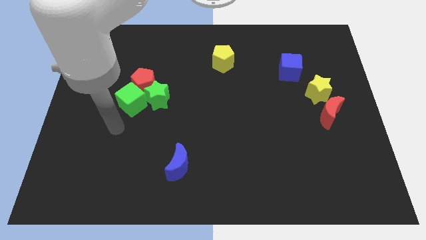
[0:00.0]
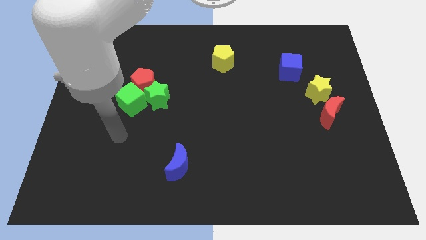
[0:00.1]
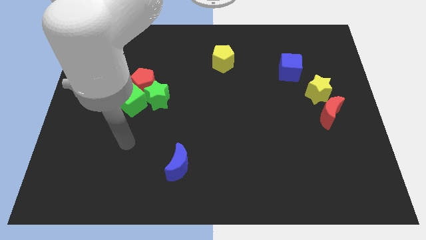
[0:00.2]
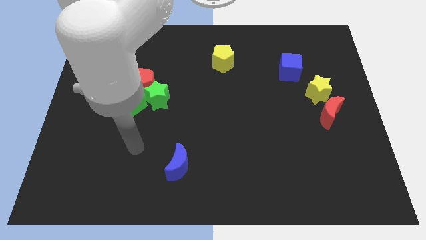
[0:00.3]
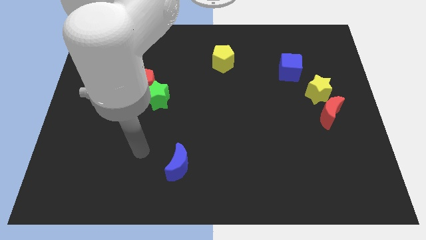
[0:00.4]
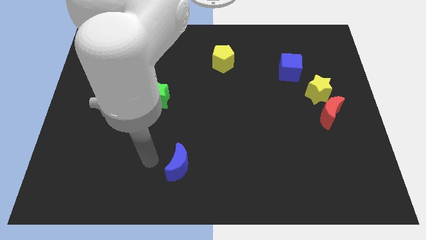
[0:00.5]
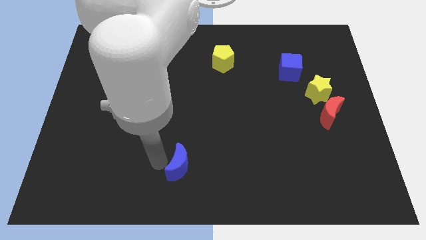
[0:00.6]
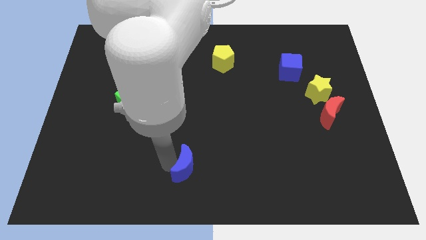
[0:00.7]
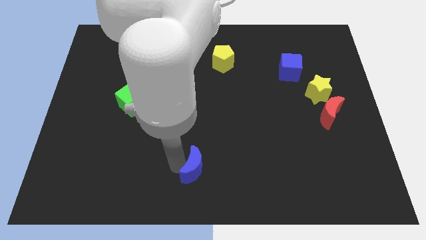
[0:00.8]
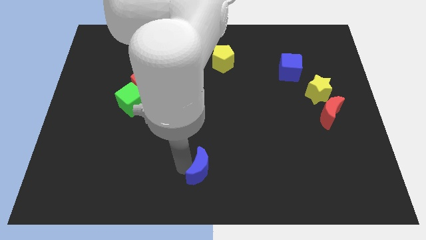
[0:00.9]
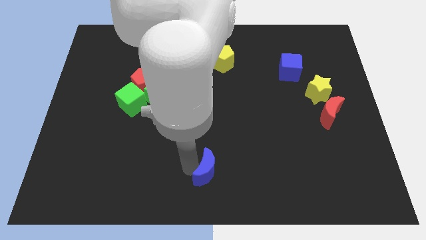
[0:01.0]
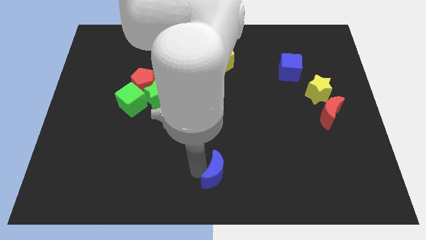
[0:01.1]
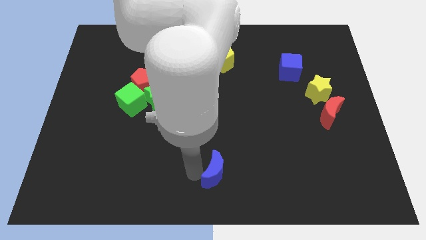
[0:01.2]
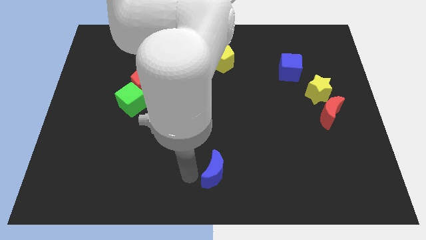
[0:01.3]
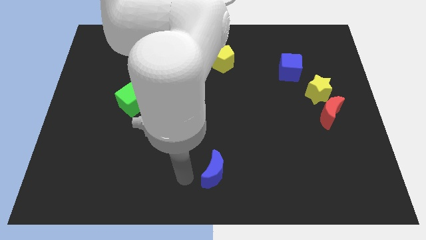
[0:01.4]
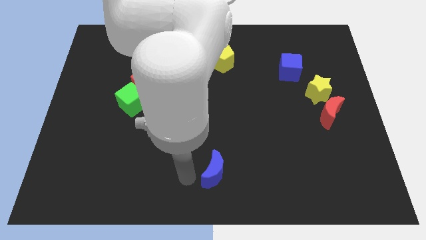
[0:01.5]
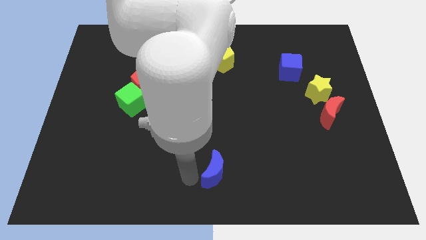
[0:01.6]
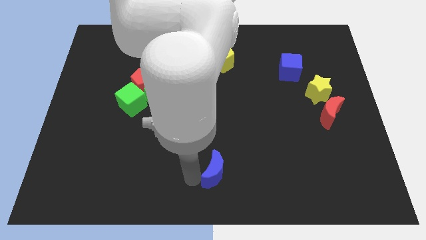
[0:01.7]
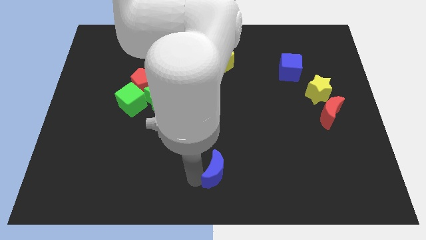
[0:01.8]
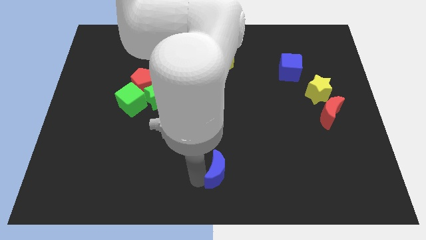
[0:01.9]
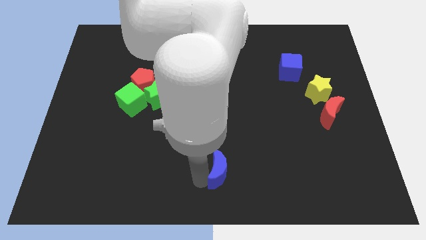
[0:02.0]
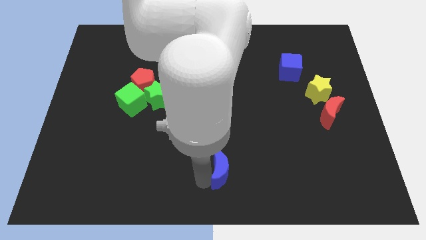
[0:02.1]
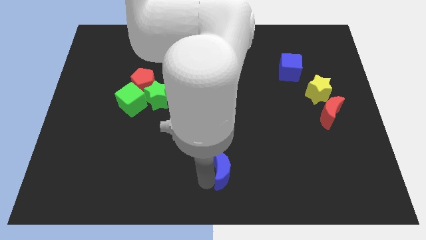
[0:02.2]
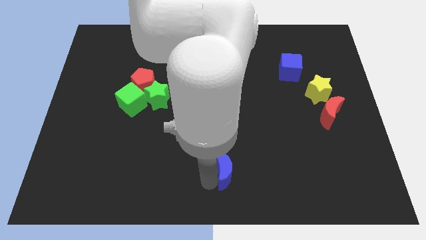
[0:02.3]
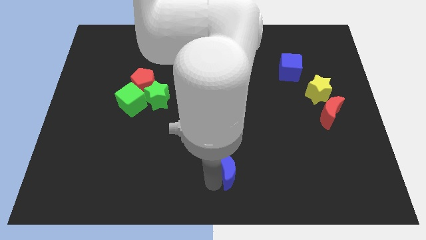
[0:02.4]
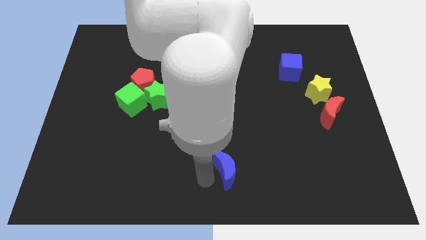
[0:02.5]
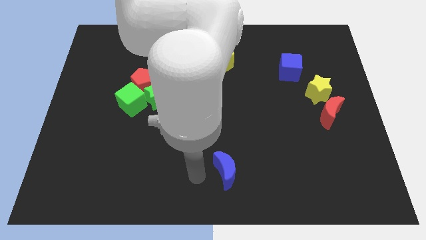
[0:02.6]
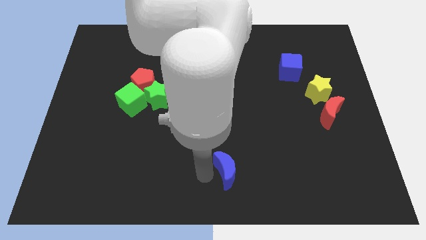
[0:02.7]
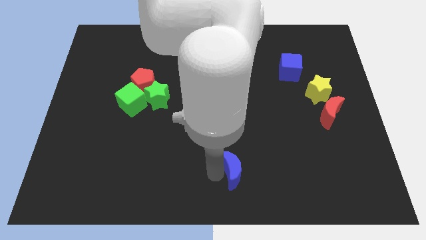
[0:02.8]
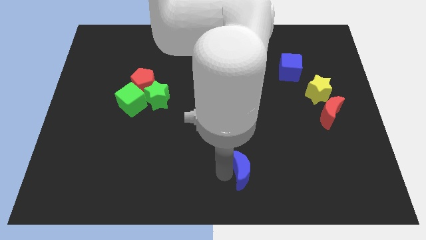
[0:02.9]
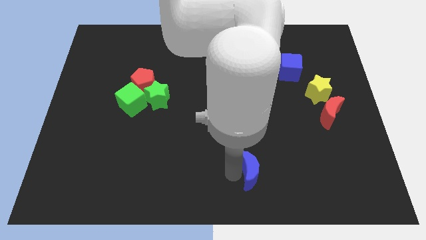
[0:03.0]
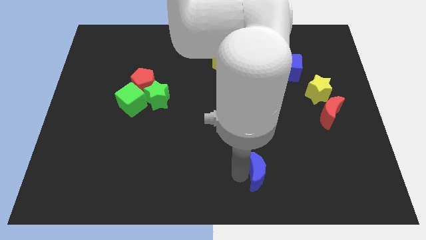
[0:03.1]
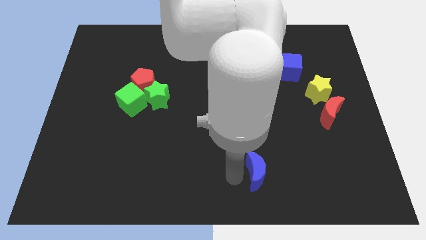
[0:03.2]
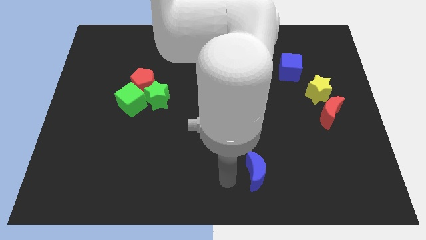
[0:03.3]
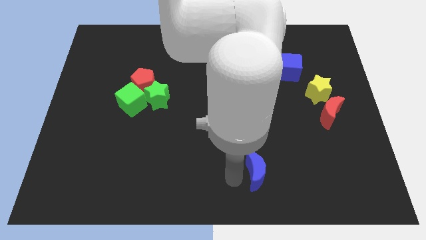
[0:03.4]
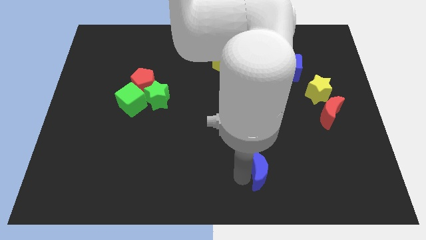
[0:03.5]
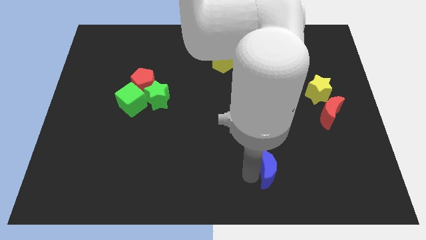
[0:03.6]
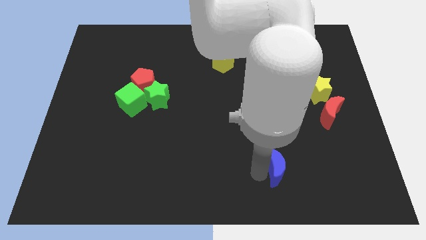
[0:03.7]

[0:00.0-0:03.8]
push the blue moon to the right

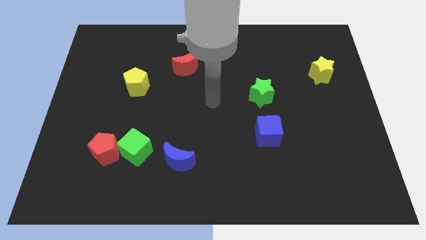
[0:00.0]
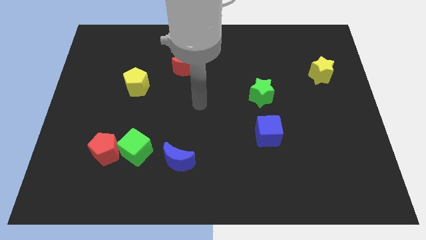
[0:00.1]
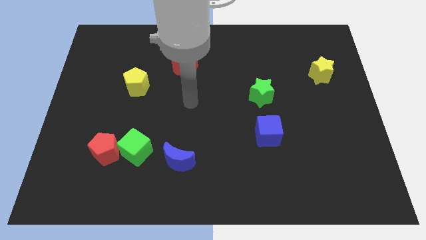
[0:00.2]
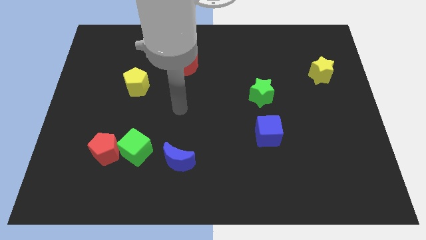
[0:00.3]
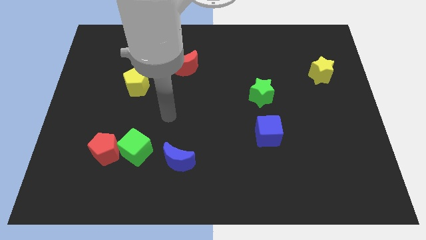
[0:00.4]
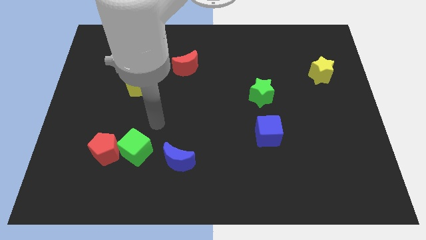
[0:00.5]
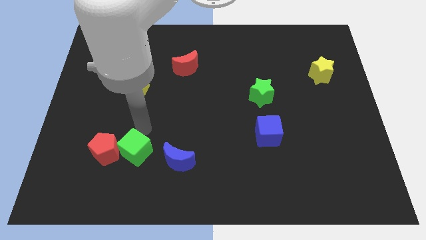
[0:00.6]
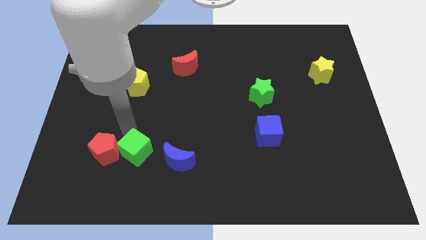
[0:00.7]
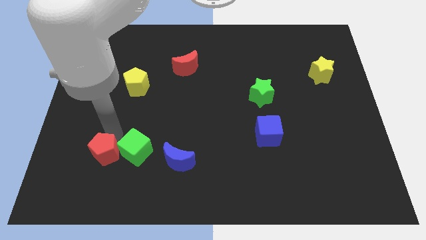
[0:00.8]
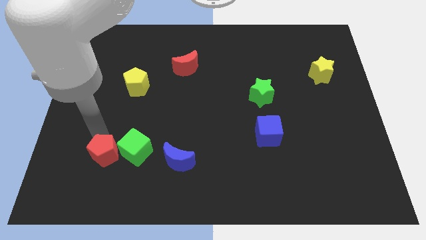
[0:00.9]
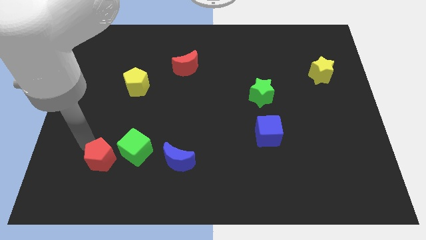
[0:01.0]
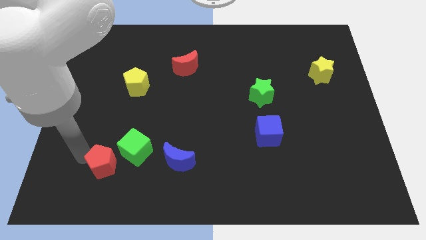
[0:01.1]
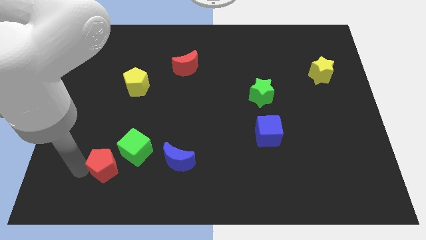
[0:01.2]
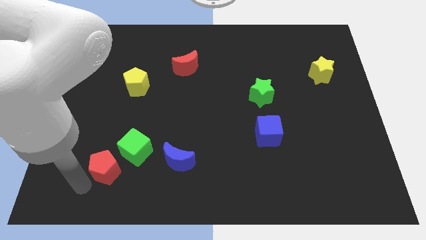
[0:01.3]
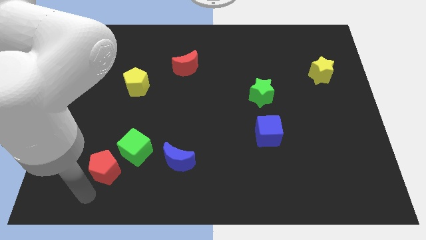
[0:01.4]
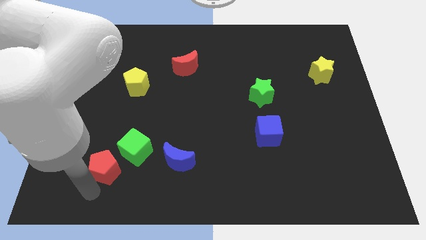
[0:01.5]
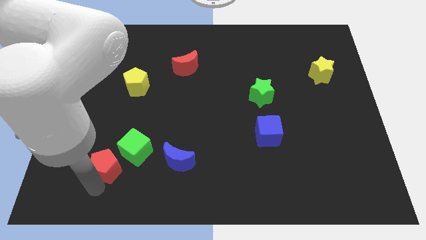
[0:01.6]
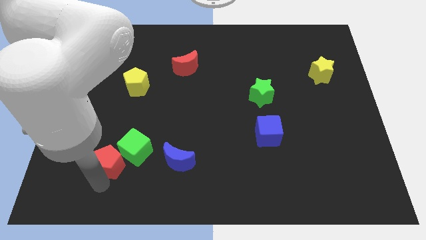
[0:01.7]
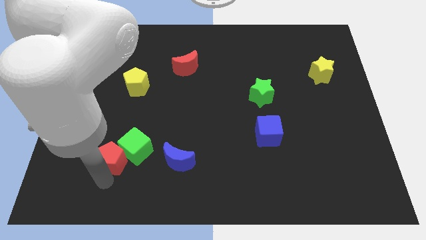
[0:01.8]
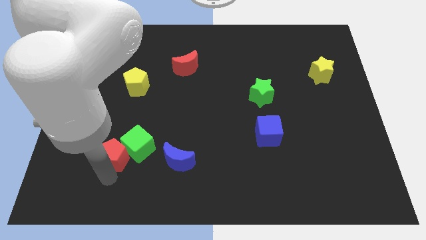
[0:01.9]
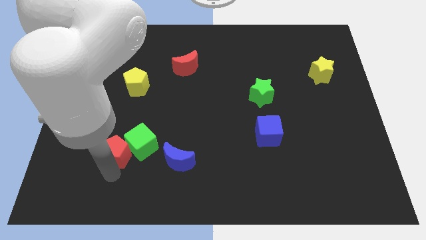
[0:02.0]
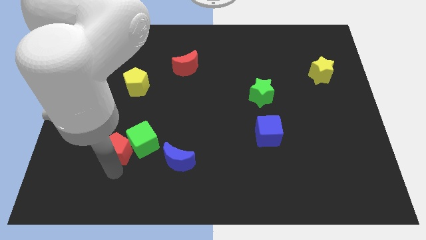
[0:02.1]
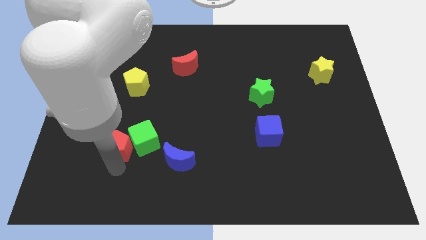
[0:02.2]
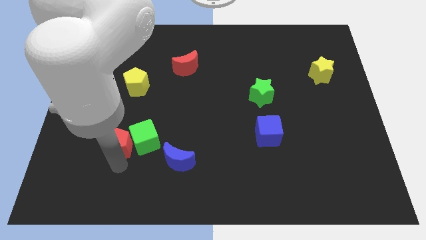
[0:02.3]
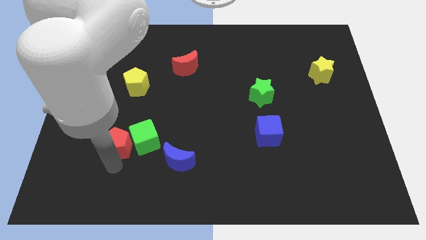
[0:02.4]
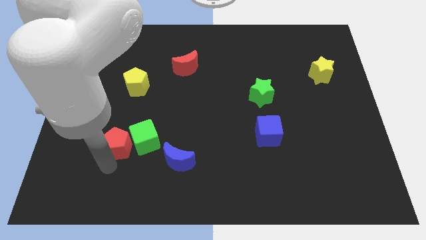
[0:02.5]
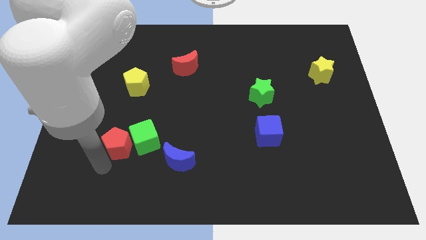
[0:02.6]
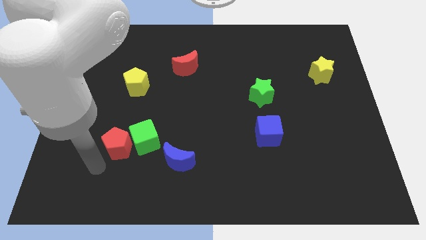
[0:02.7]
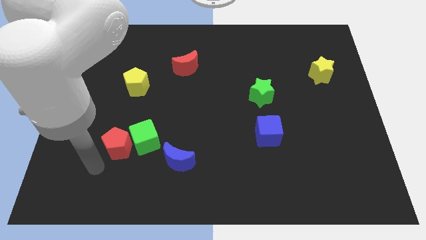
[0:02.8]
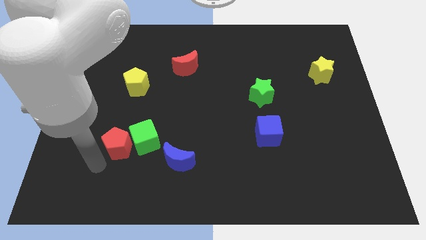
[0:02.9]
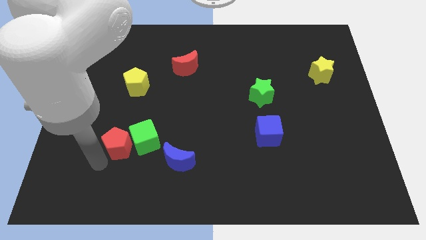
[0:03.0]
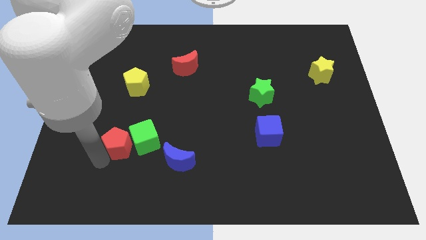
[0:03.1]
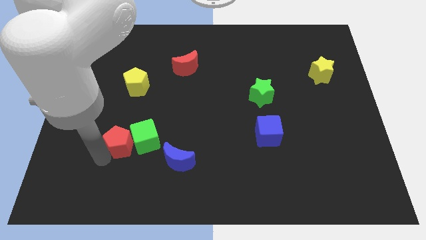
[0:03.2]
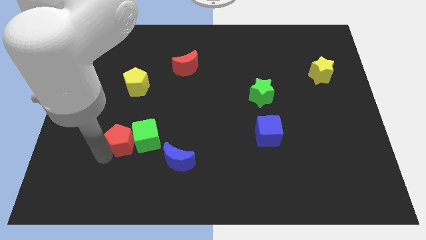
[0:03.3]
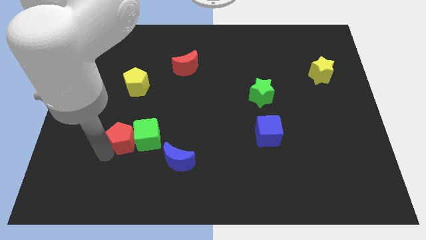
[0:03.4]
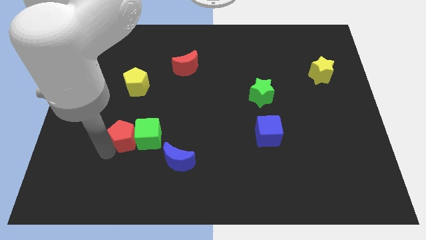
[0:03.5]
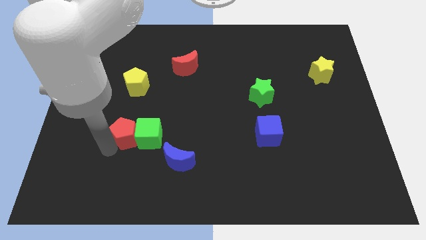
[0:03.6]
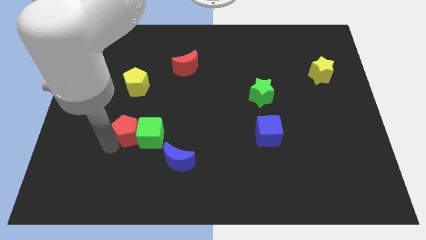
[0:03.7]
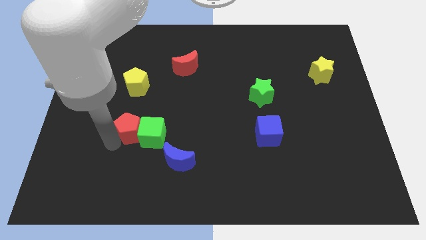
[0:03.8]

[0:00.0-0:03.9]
slide the red pentagon a bit diagonally up and right

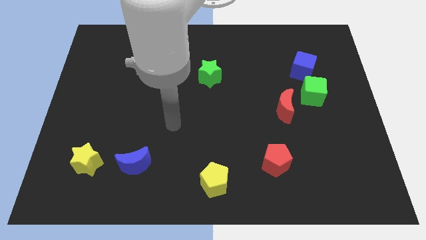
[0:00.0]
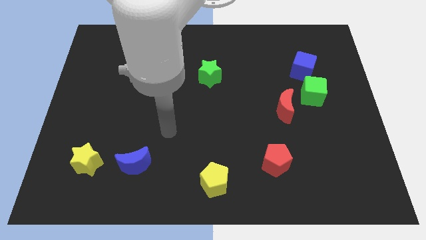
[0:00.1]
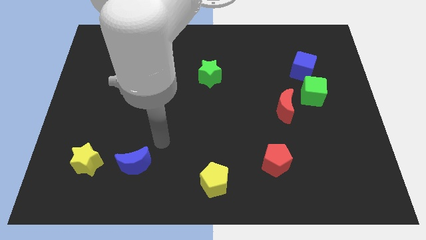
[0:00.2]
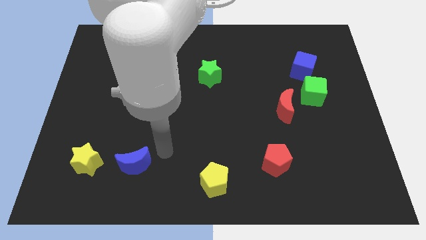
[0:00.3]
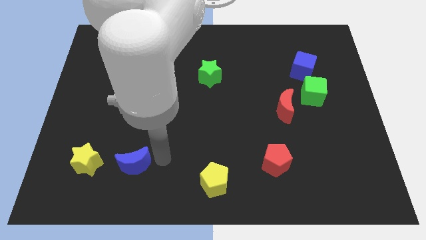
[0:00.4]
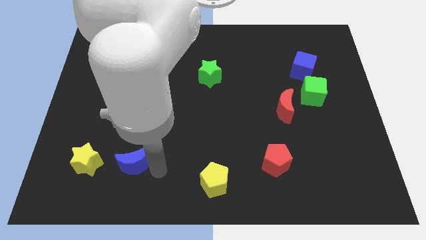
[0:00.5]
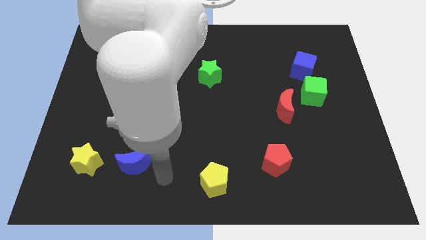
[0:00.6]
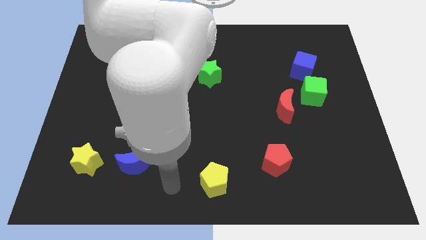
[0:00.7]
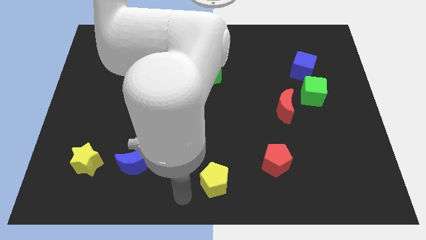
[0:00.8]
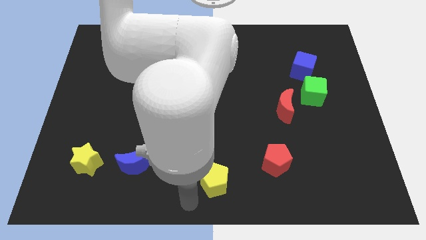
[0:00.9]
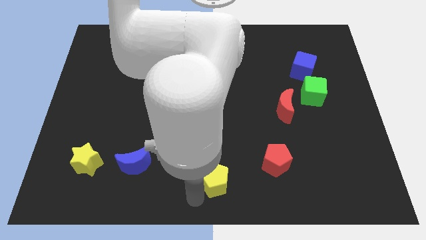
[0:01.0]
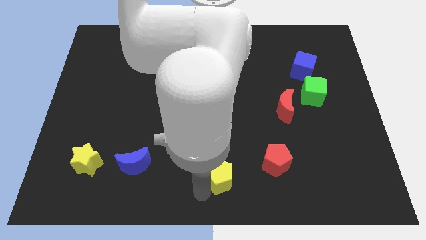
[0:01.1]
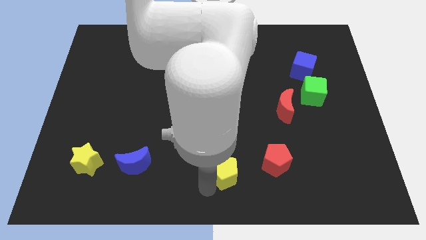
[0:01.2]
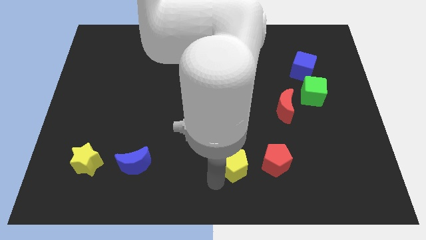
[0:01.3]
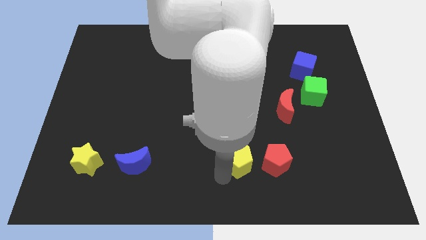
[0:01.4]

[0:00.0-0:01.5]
move the yellow pentagon a little bit up and to the right
